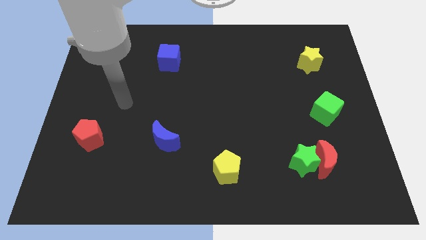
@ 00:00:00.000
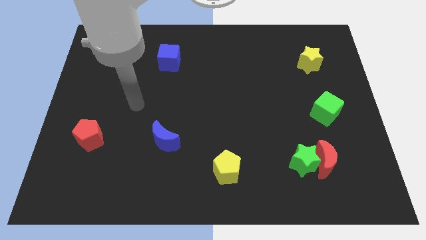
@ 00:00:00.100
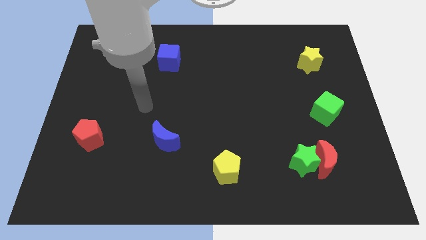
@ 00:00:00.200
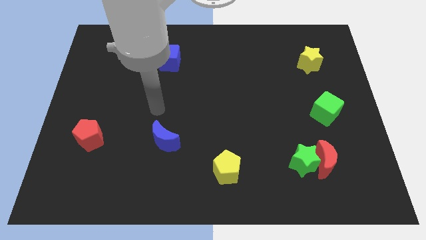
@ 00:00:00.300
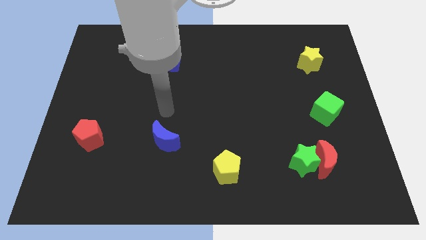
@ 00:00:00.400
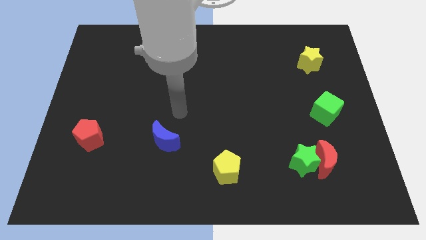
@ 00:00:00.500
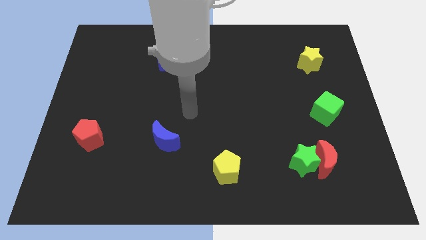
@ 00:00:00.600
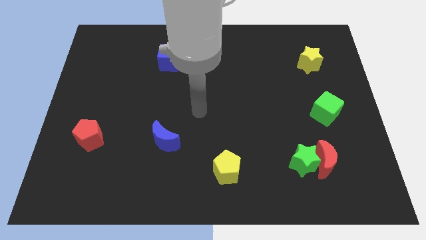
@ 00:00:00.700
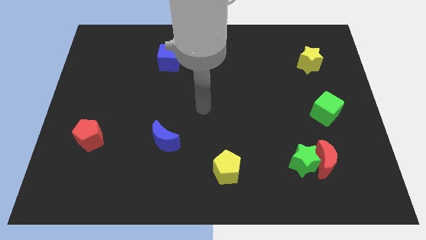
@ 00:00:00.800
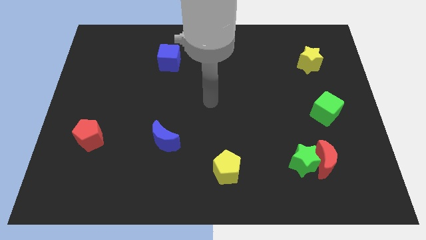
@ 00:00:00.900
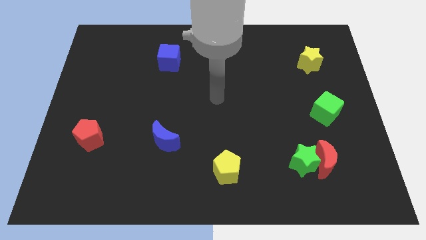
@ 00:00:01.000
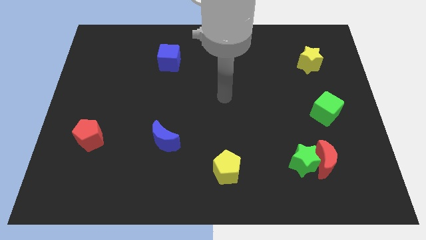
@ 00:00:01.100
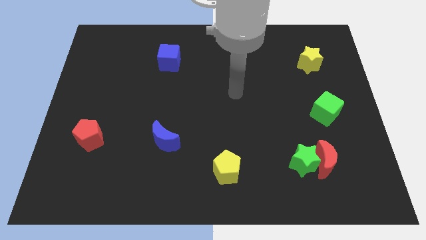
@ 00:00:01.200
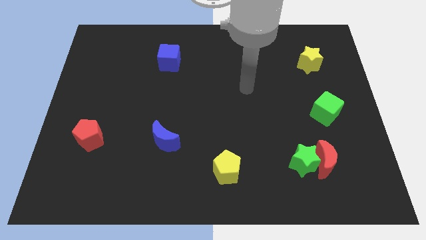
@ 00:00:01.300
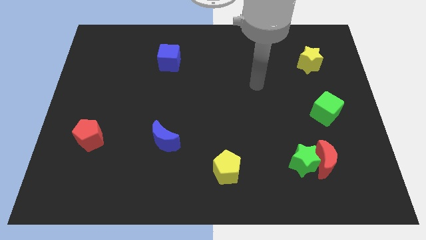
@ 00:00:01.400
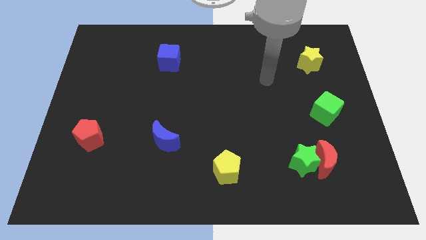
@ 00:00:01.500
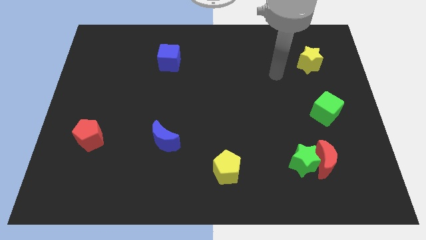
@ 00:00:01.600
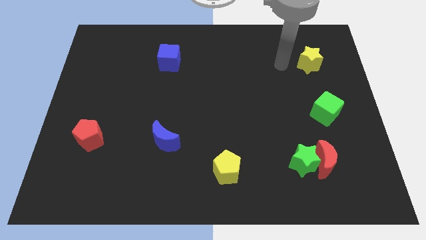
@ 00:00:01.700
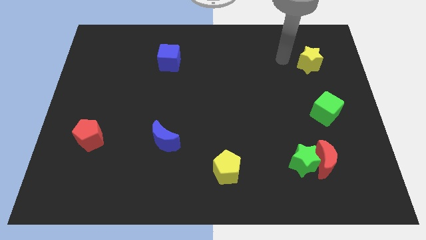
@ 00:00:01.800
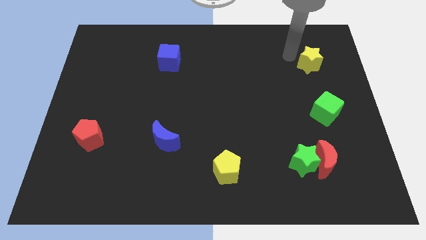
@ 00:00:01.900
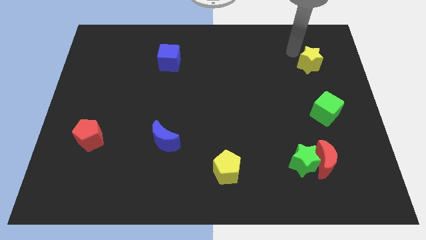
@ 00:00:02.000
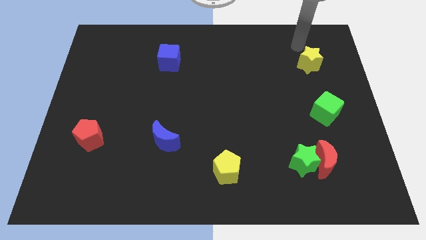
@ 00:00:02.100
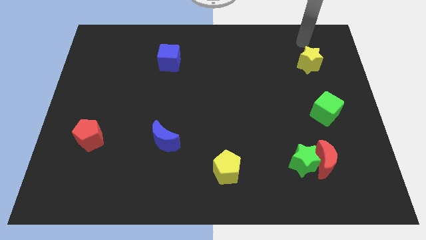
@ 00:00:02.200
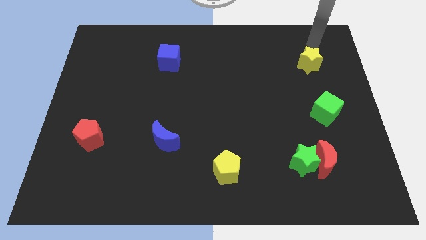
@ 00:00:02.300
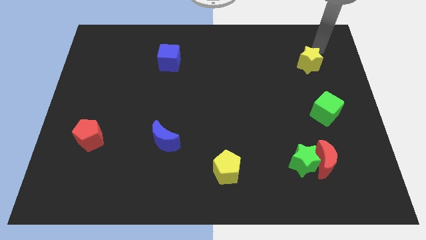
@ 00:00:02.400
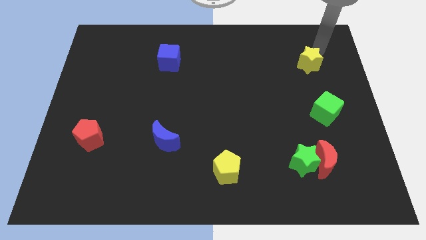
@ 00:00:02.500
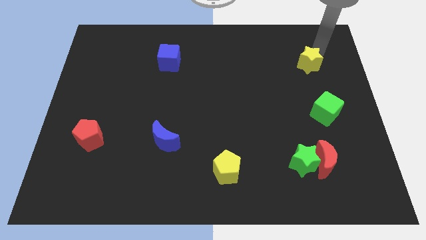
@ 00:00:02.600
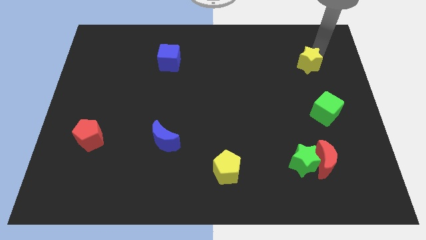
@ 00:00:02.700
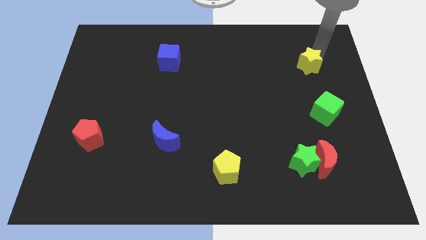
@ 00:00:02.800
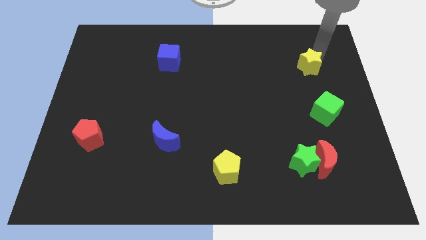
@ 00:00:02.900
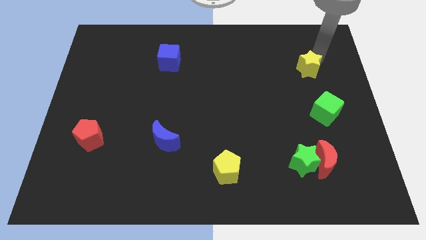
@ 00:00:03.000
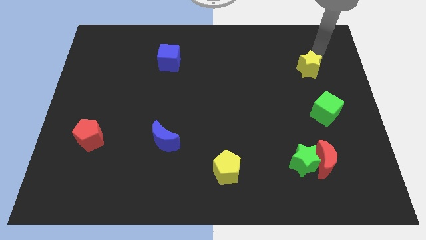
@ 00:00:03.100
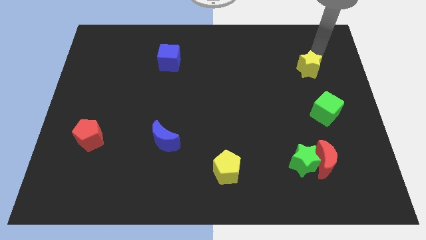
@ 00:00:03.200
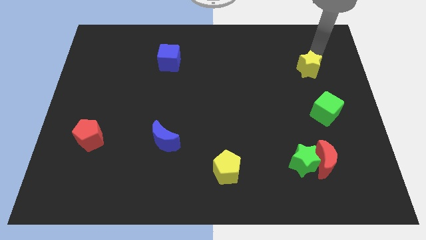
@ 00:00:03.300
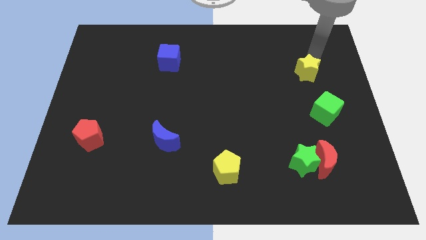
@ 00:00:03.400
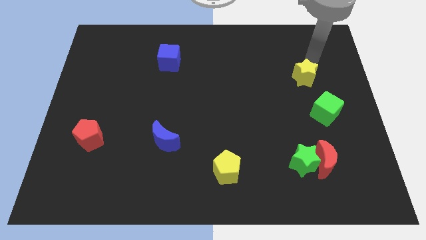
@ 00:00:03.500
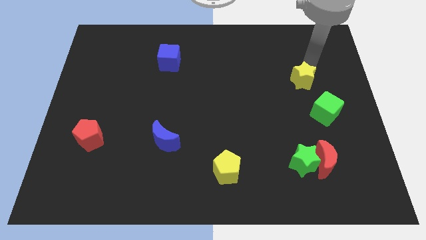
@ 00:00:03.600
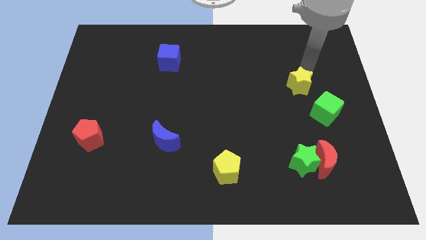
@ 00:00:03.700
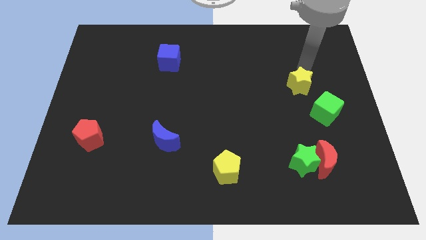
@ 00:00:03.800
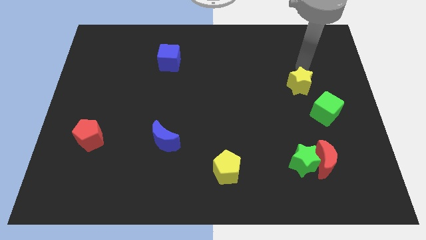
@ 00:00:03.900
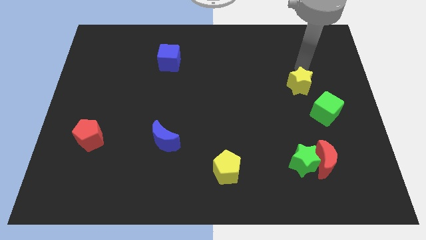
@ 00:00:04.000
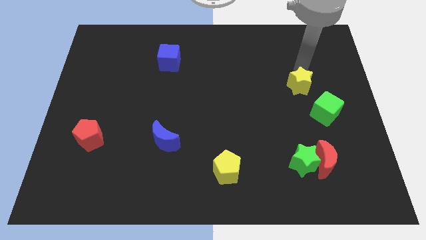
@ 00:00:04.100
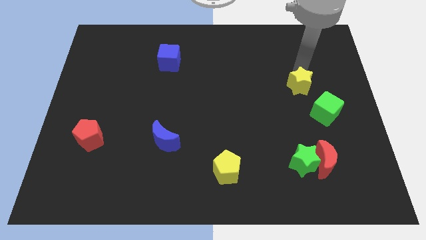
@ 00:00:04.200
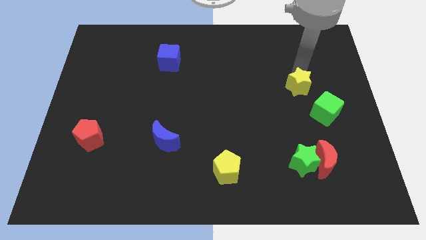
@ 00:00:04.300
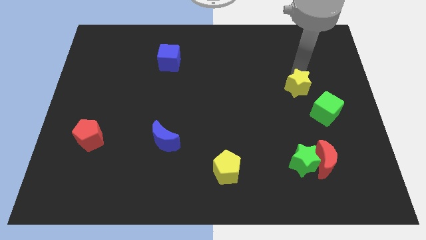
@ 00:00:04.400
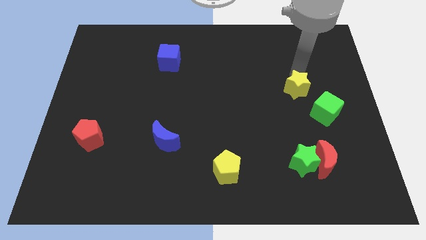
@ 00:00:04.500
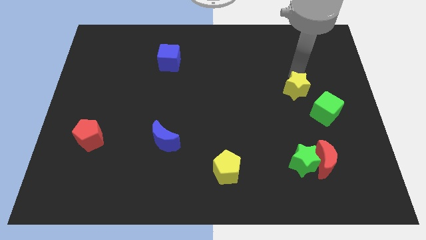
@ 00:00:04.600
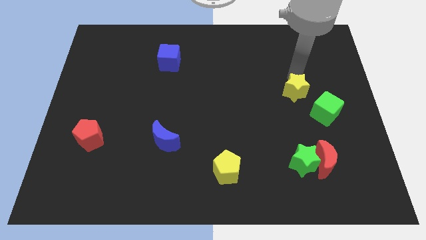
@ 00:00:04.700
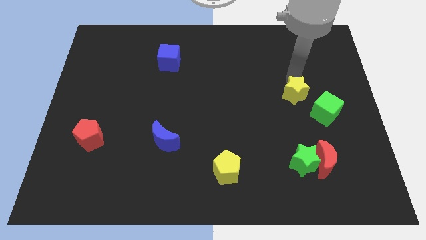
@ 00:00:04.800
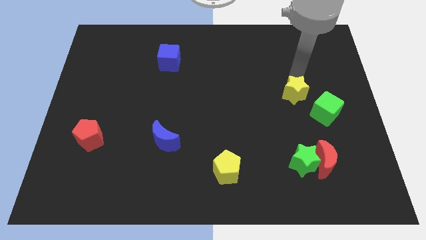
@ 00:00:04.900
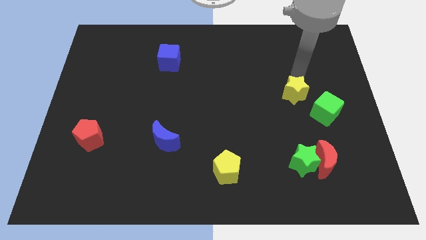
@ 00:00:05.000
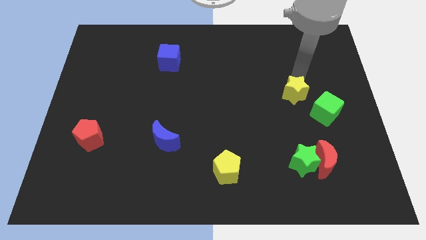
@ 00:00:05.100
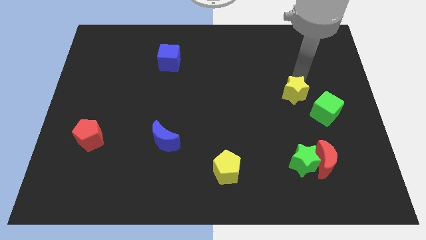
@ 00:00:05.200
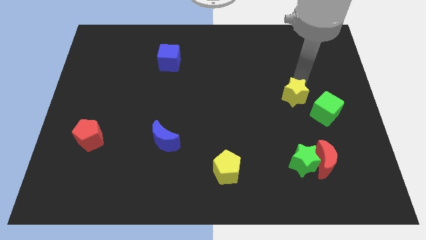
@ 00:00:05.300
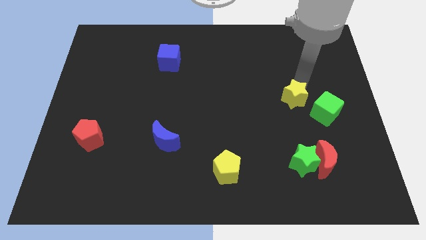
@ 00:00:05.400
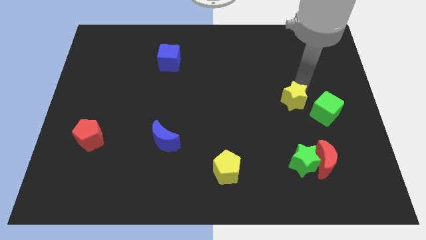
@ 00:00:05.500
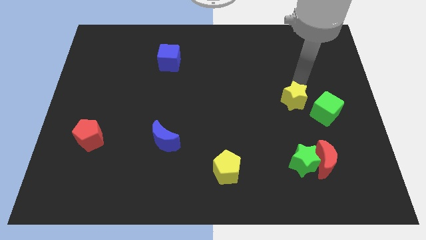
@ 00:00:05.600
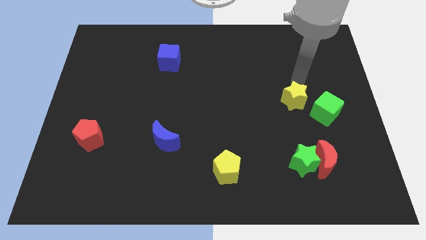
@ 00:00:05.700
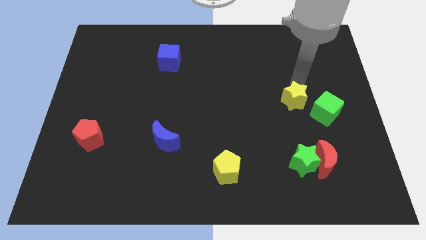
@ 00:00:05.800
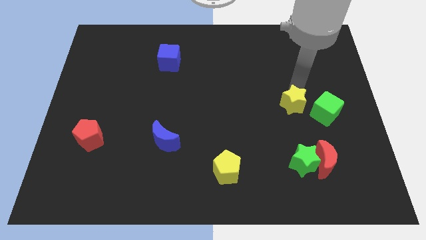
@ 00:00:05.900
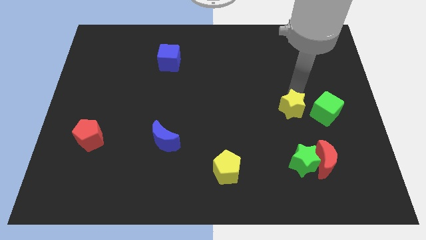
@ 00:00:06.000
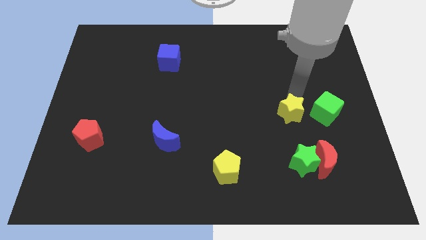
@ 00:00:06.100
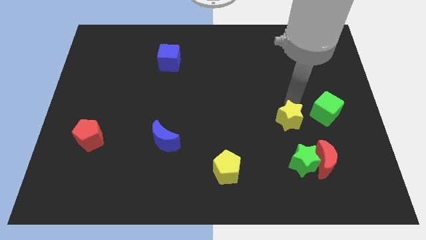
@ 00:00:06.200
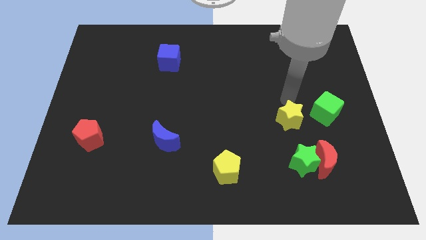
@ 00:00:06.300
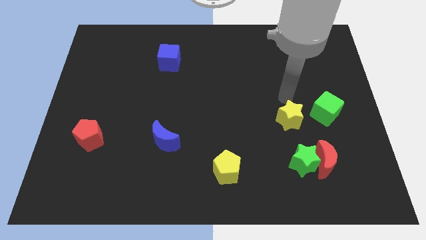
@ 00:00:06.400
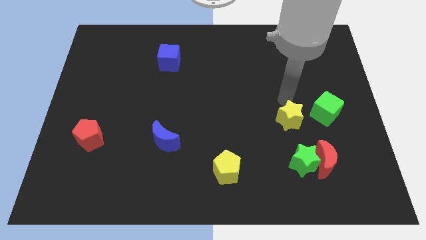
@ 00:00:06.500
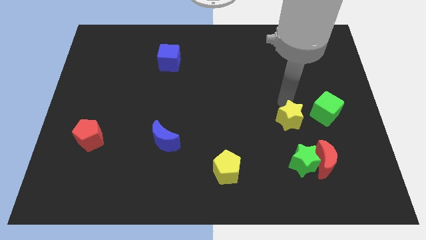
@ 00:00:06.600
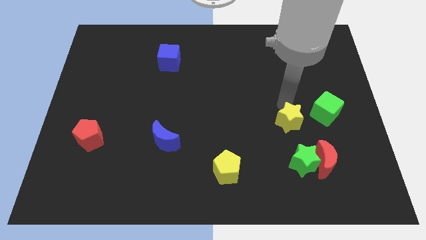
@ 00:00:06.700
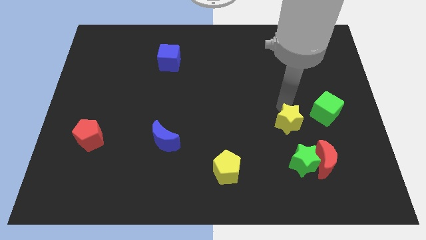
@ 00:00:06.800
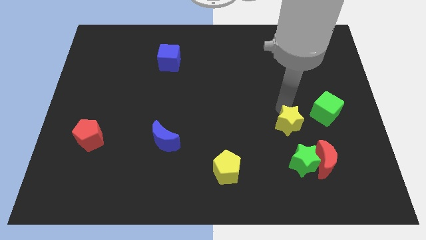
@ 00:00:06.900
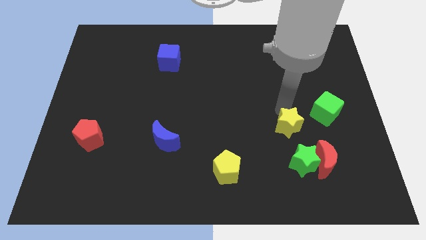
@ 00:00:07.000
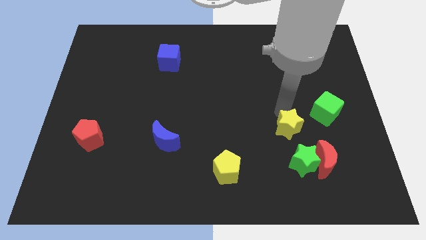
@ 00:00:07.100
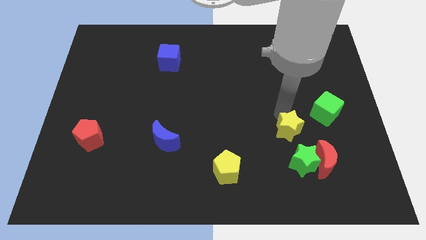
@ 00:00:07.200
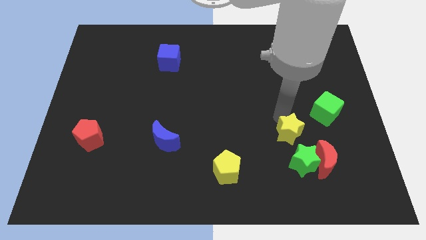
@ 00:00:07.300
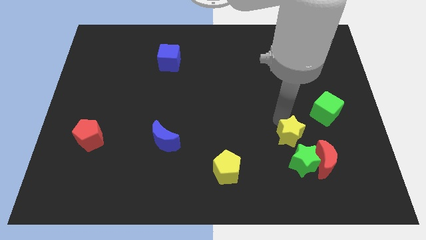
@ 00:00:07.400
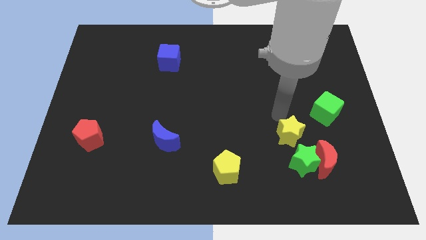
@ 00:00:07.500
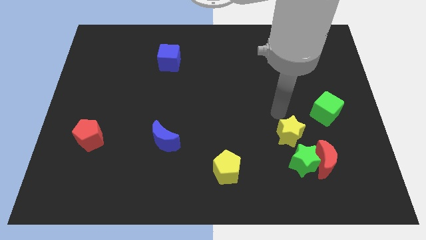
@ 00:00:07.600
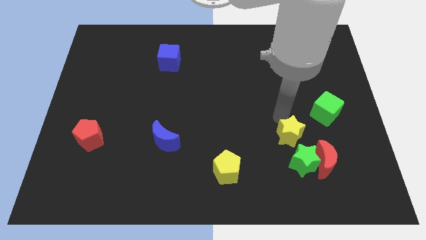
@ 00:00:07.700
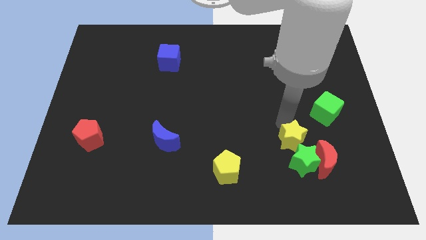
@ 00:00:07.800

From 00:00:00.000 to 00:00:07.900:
push the yellow star close to the green star
